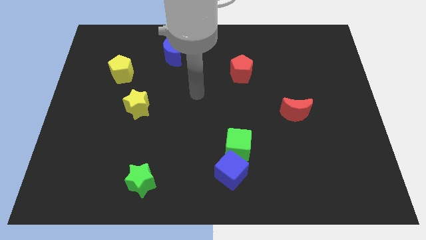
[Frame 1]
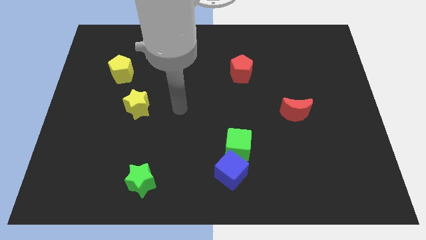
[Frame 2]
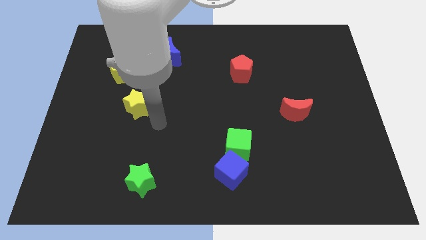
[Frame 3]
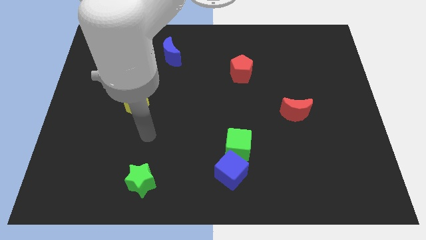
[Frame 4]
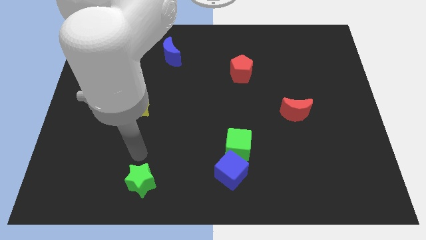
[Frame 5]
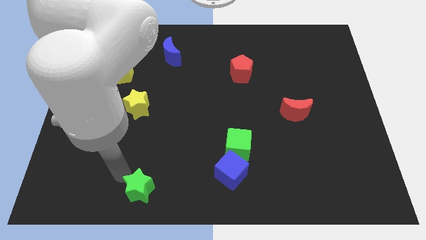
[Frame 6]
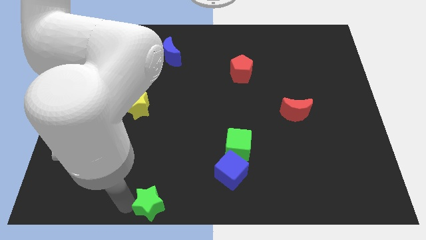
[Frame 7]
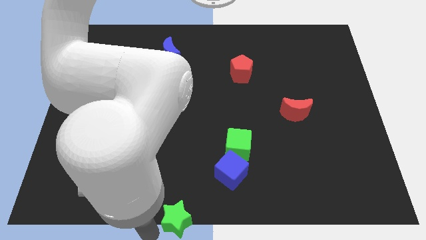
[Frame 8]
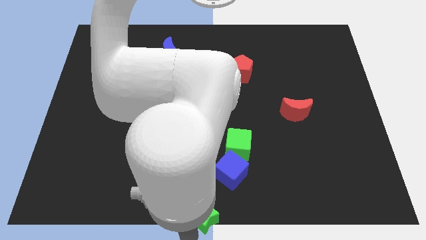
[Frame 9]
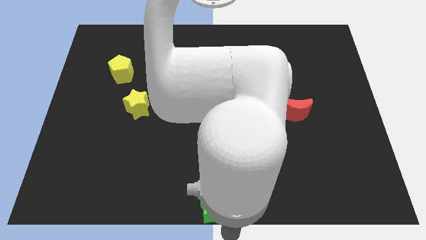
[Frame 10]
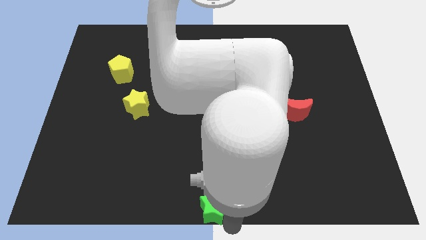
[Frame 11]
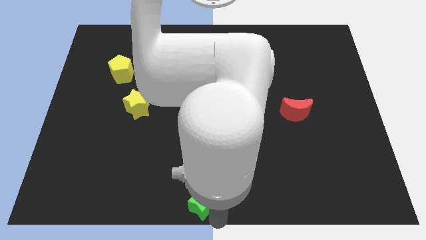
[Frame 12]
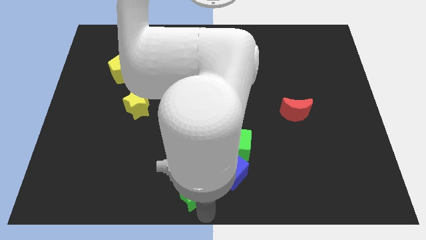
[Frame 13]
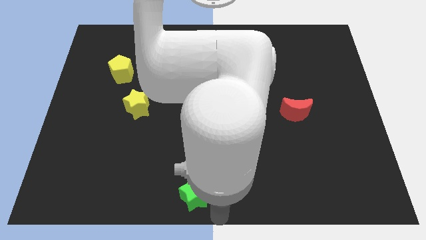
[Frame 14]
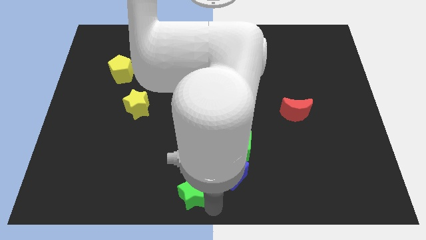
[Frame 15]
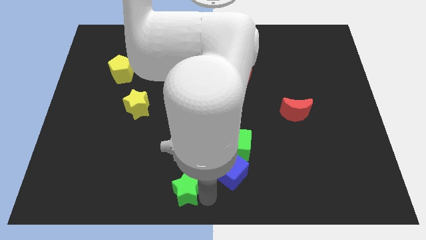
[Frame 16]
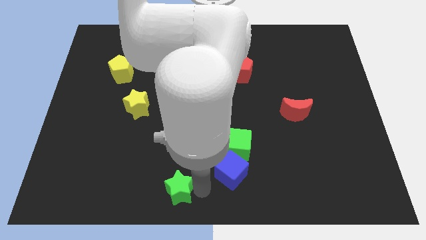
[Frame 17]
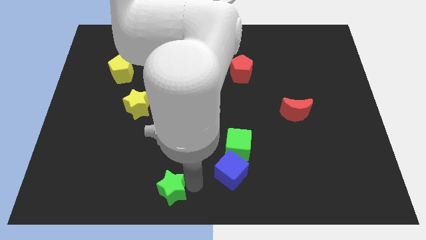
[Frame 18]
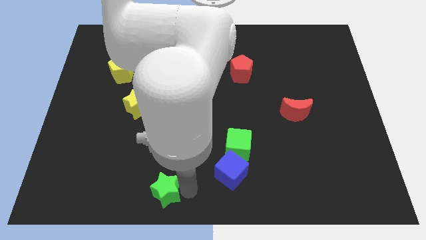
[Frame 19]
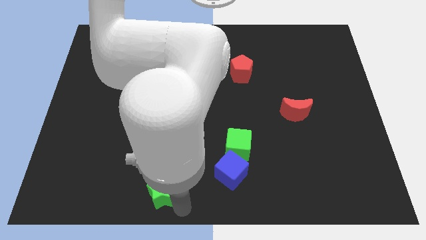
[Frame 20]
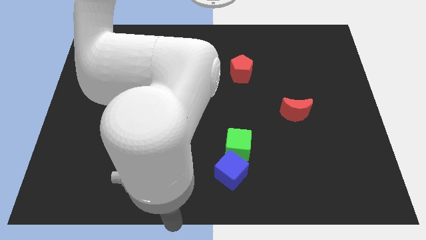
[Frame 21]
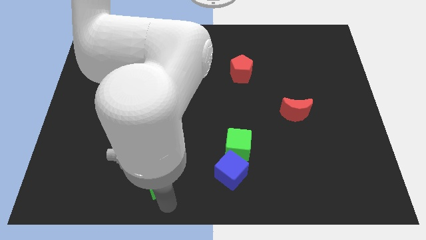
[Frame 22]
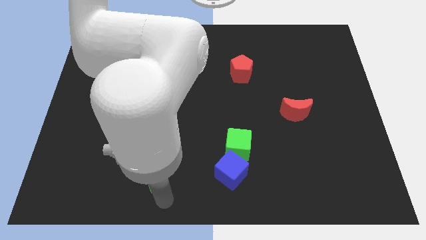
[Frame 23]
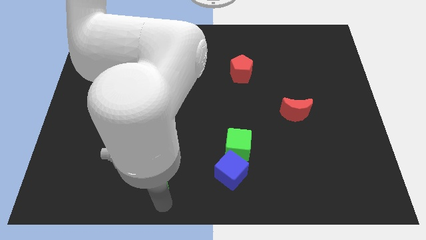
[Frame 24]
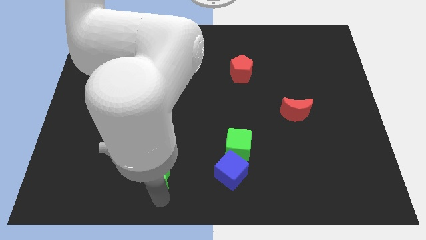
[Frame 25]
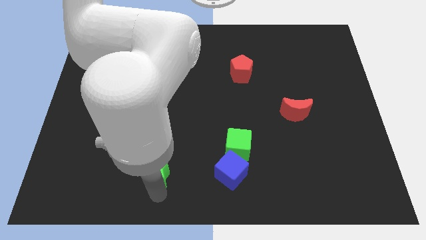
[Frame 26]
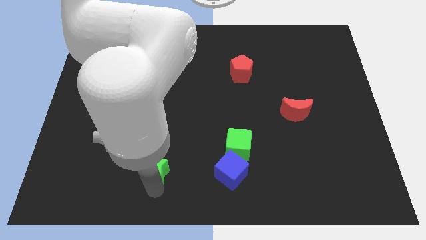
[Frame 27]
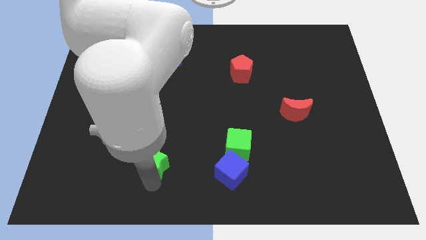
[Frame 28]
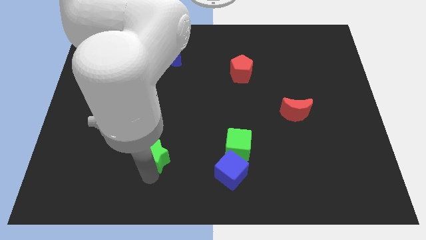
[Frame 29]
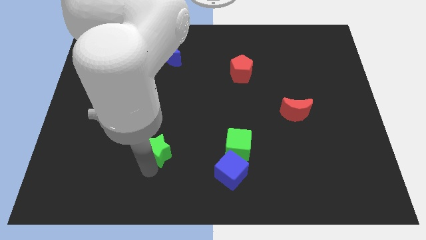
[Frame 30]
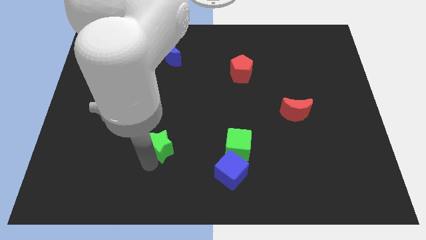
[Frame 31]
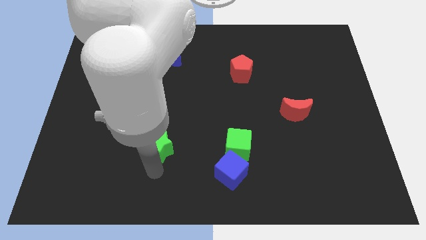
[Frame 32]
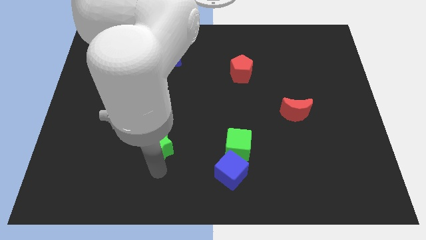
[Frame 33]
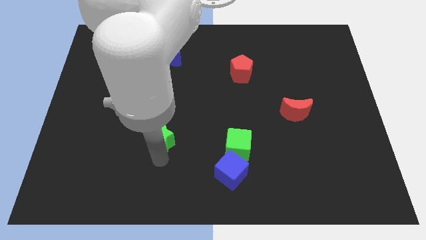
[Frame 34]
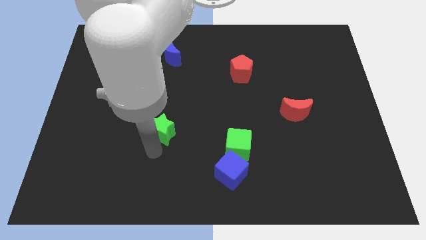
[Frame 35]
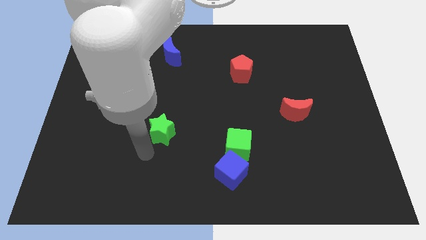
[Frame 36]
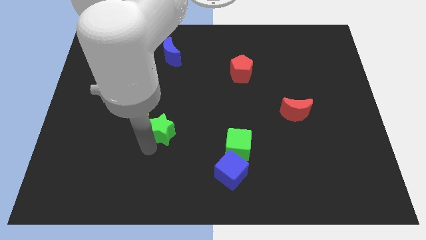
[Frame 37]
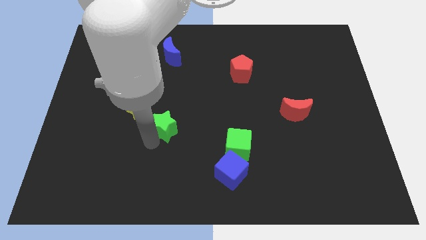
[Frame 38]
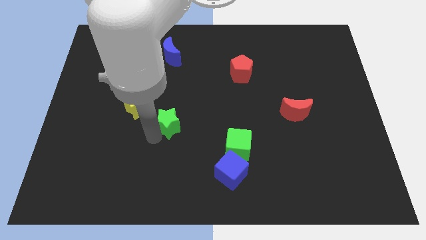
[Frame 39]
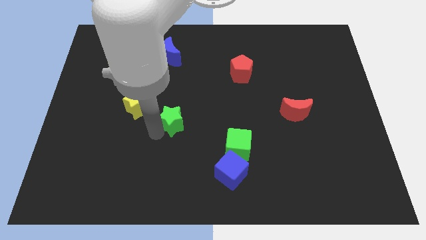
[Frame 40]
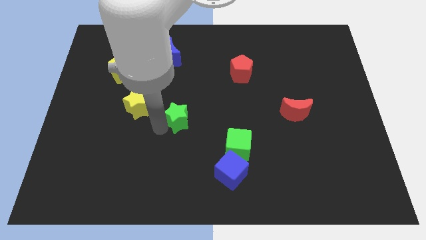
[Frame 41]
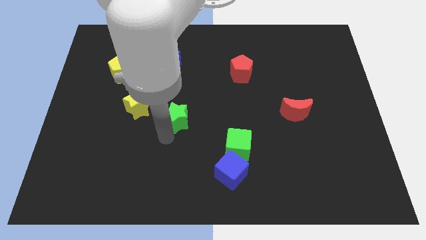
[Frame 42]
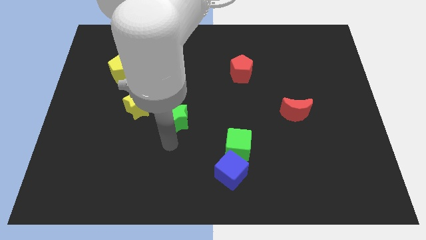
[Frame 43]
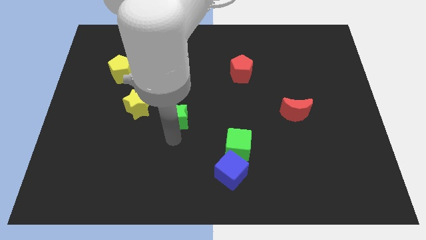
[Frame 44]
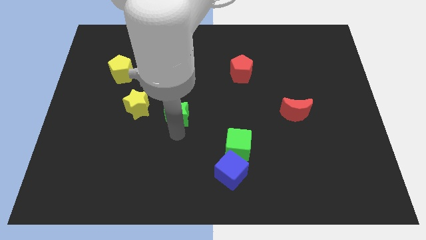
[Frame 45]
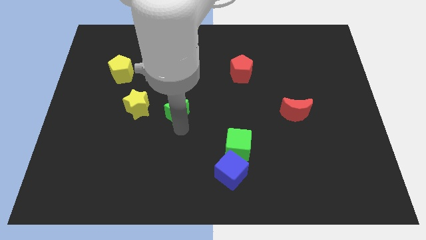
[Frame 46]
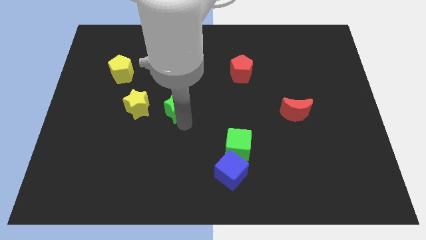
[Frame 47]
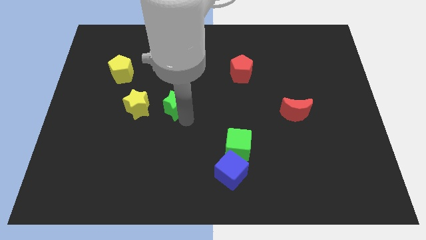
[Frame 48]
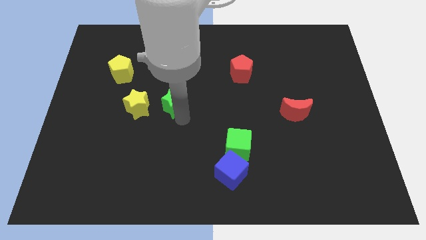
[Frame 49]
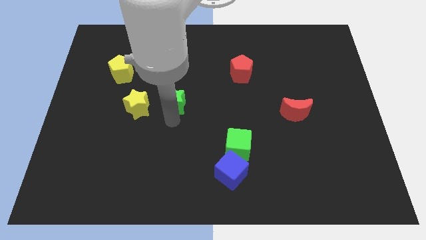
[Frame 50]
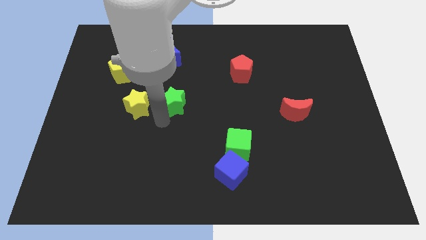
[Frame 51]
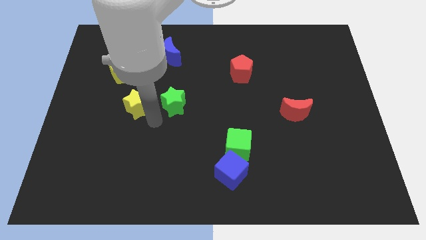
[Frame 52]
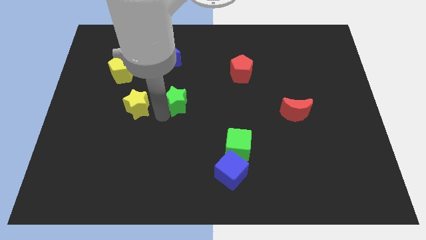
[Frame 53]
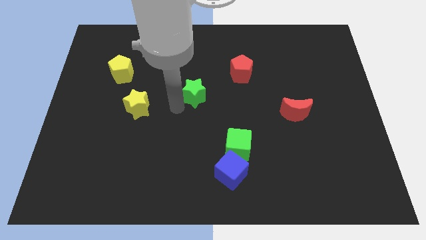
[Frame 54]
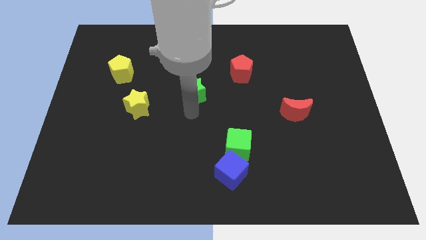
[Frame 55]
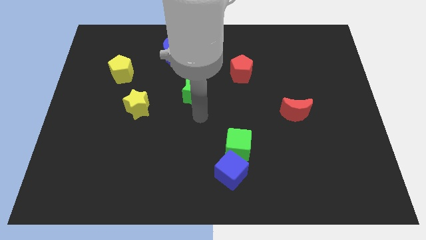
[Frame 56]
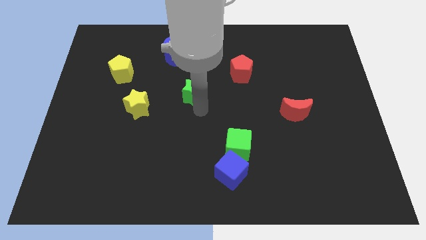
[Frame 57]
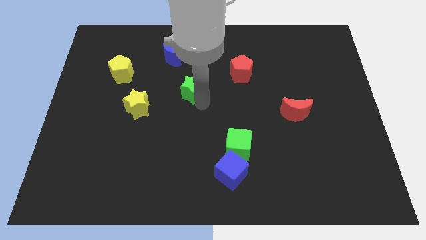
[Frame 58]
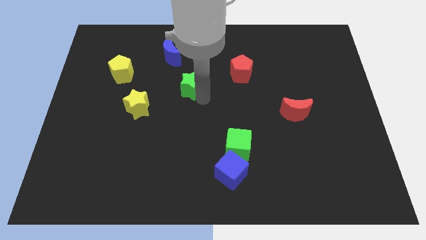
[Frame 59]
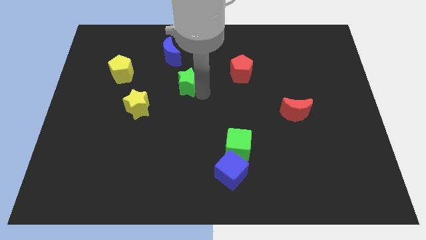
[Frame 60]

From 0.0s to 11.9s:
push the green star diagonally down and to the right of the blue moon
